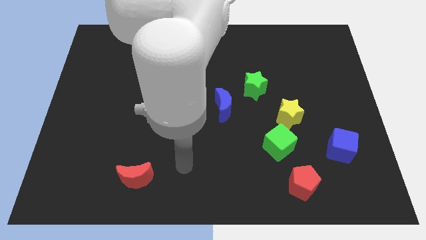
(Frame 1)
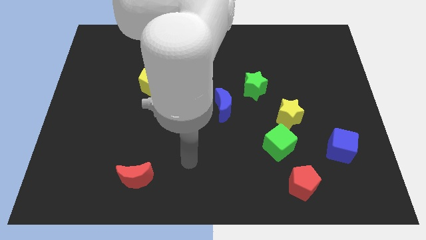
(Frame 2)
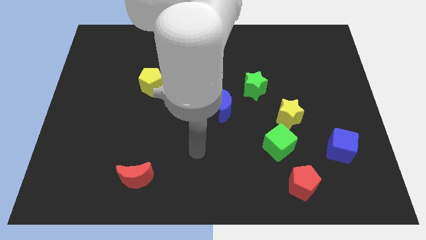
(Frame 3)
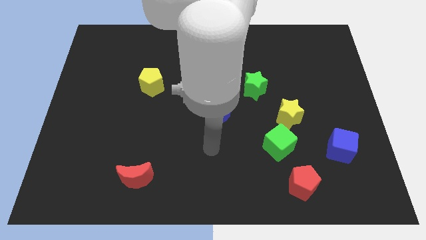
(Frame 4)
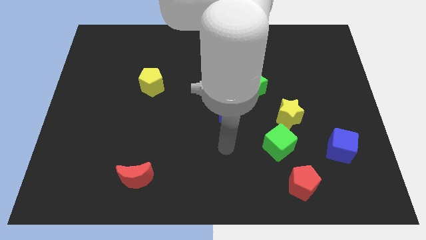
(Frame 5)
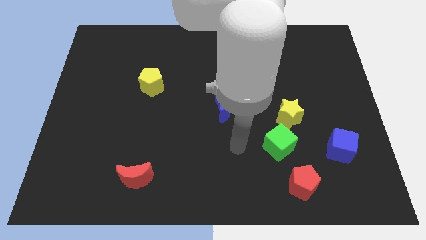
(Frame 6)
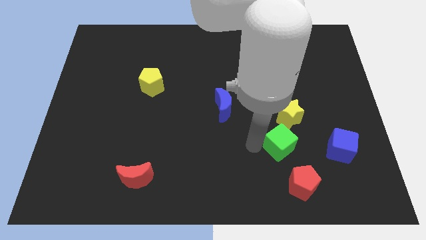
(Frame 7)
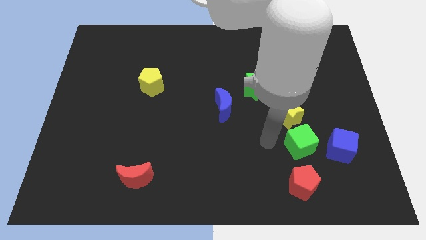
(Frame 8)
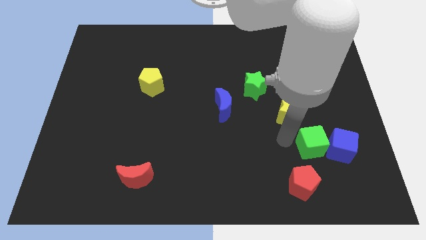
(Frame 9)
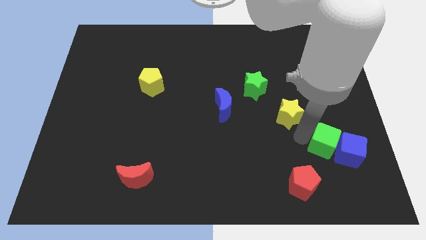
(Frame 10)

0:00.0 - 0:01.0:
separate the yellow star from the green cube

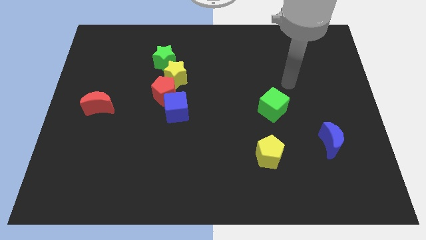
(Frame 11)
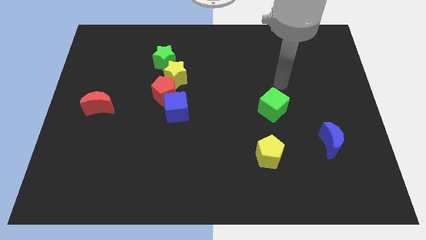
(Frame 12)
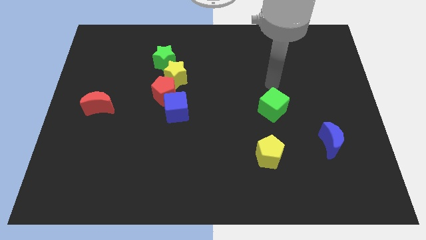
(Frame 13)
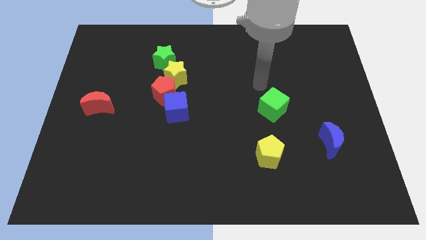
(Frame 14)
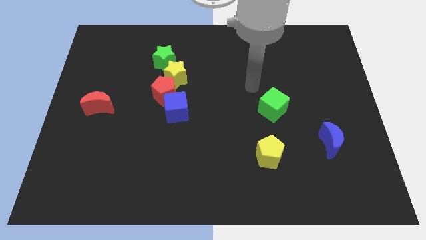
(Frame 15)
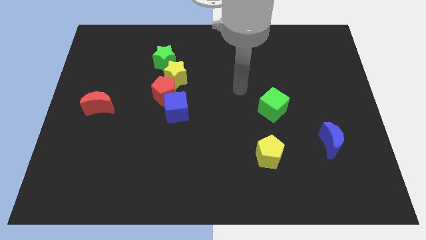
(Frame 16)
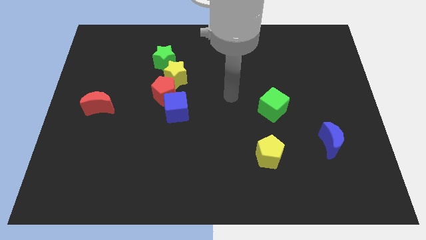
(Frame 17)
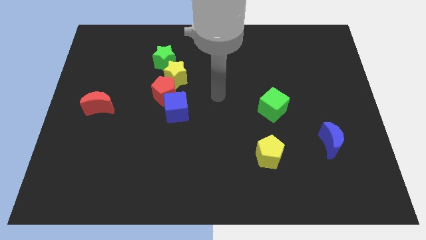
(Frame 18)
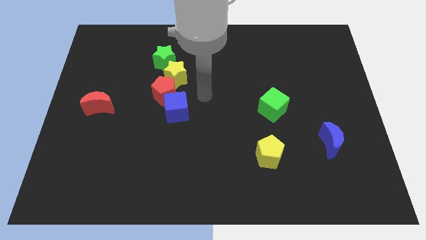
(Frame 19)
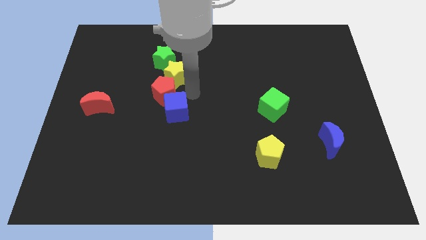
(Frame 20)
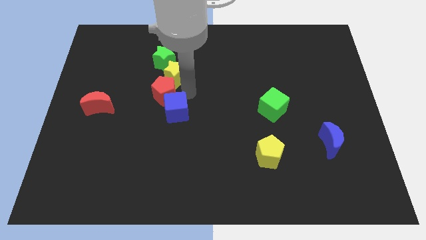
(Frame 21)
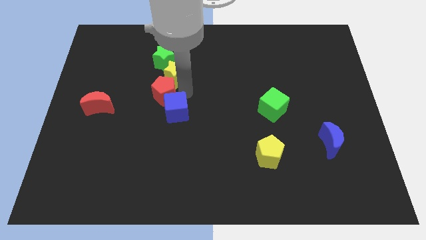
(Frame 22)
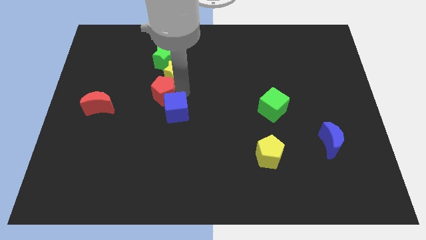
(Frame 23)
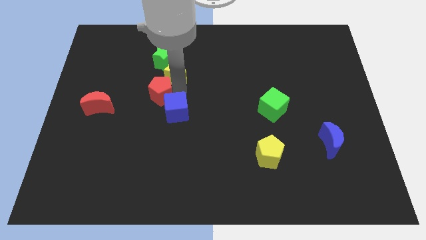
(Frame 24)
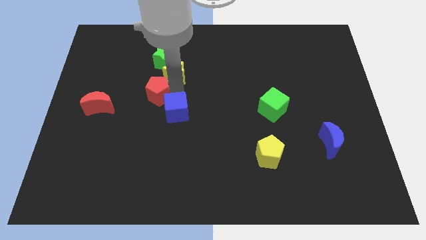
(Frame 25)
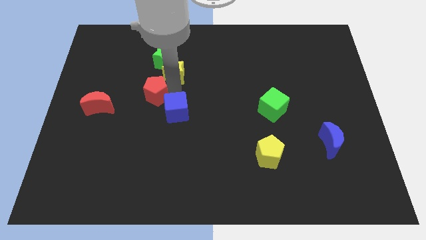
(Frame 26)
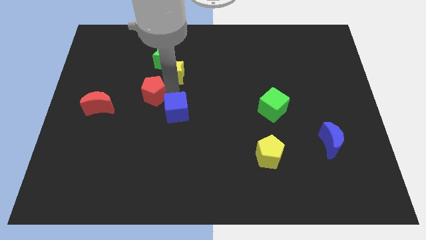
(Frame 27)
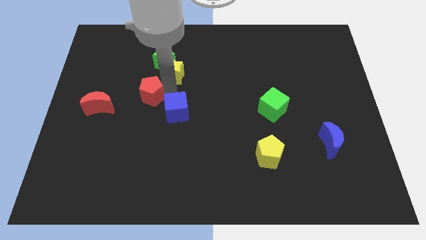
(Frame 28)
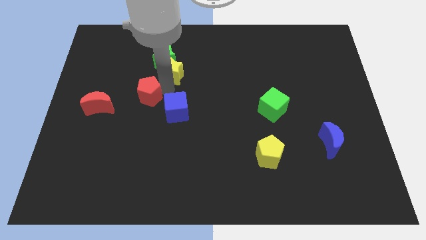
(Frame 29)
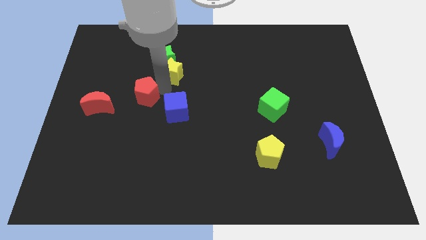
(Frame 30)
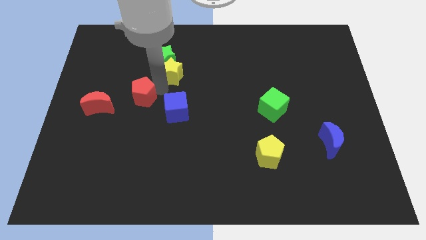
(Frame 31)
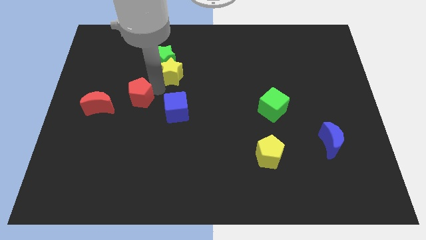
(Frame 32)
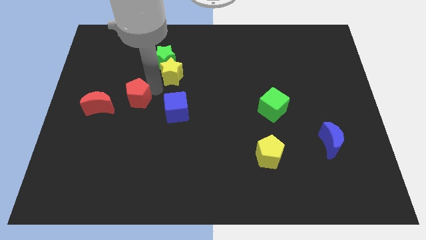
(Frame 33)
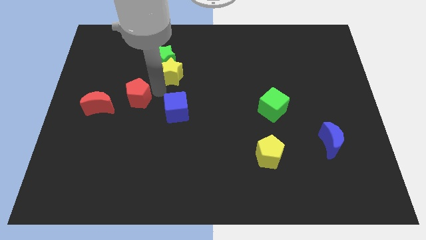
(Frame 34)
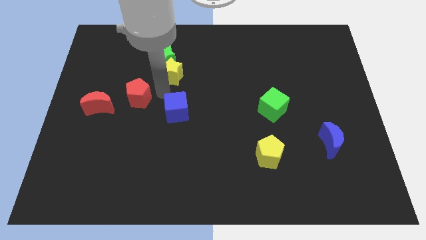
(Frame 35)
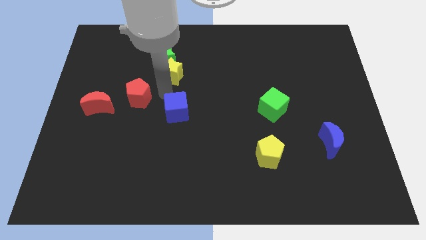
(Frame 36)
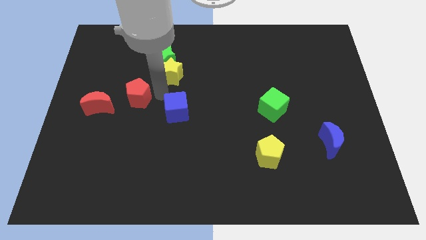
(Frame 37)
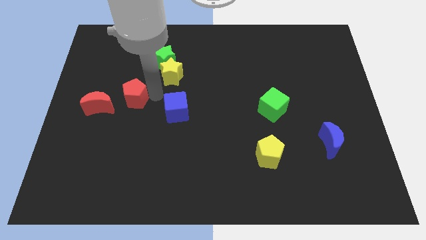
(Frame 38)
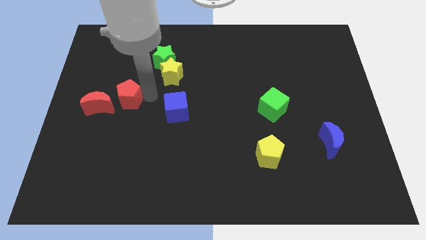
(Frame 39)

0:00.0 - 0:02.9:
move the red pentagon away from the yellow star and blue cube

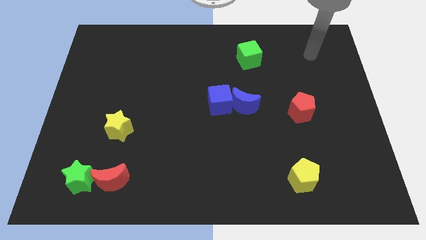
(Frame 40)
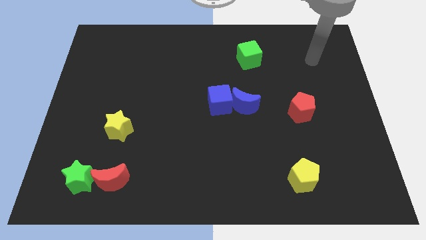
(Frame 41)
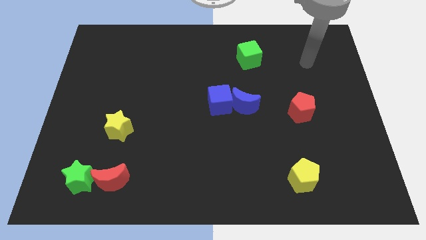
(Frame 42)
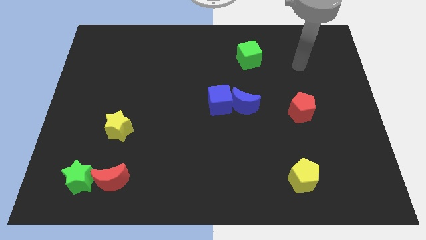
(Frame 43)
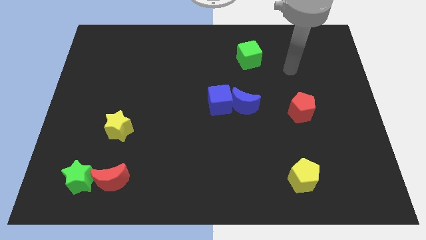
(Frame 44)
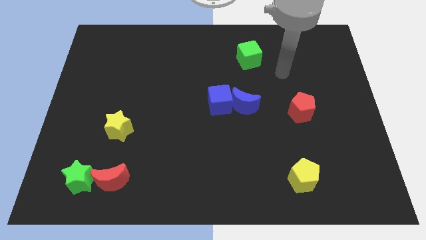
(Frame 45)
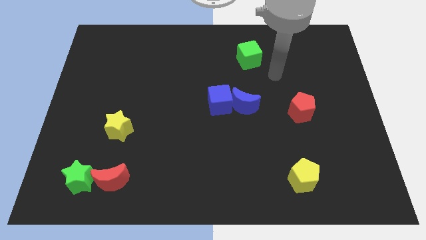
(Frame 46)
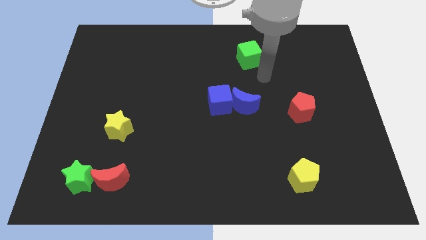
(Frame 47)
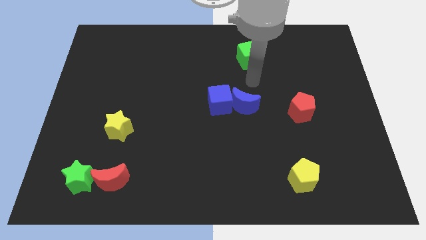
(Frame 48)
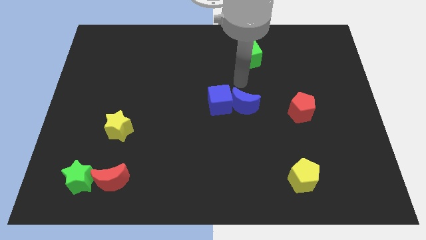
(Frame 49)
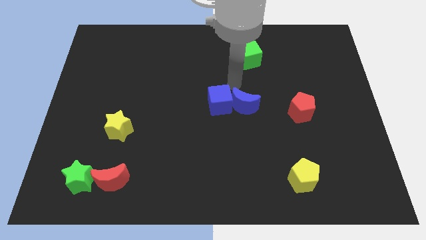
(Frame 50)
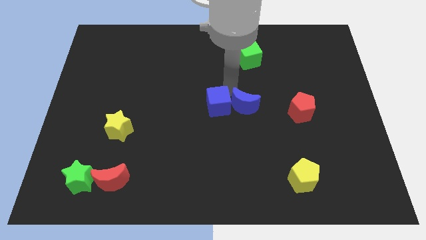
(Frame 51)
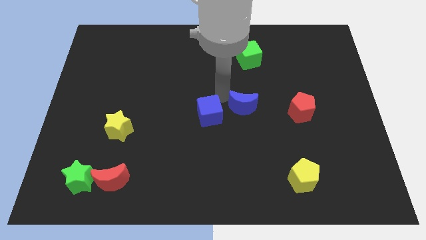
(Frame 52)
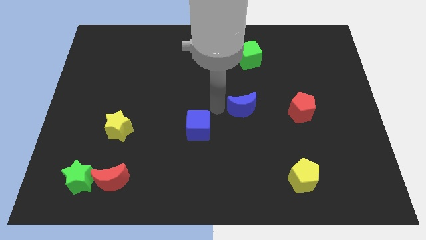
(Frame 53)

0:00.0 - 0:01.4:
pull the blue moon apart from the blue cube

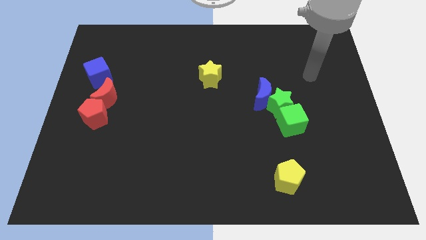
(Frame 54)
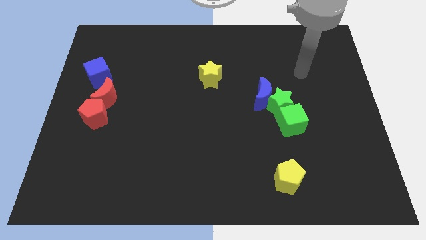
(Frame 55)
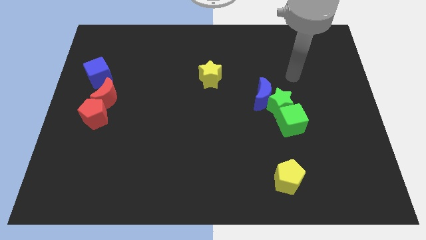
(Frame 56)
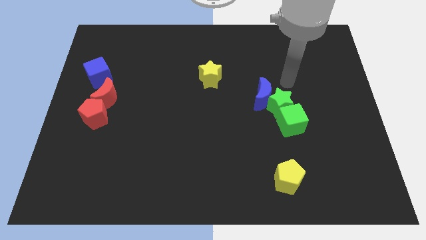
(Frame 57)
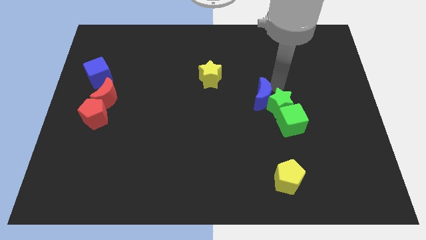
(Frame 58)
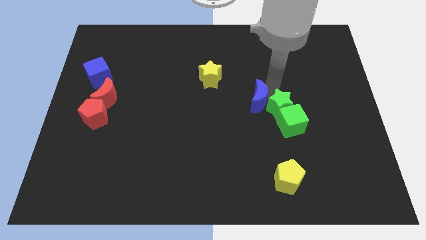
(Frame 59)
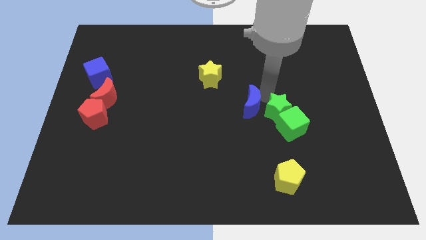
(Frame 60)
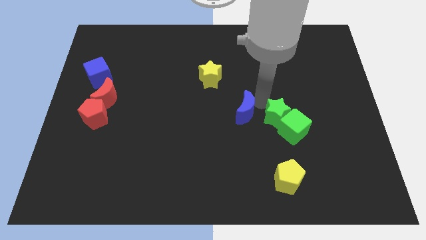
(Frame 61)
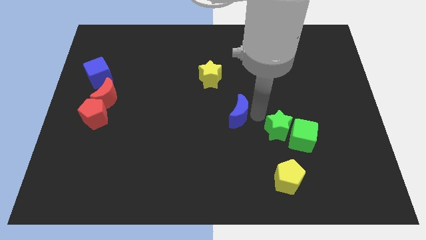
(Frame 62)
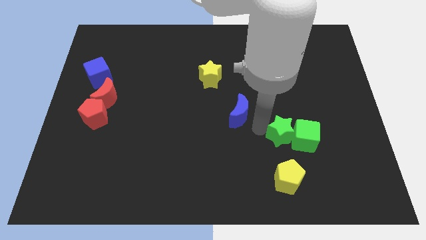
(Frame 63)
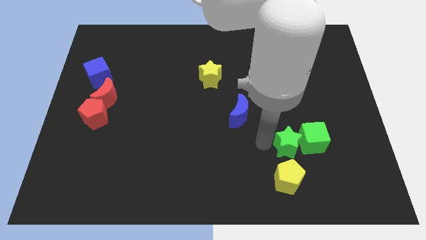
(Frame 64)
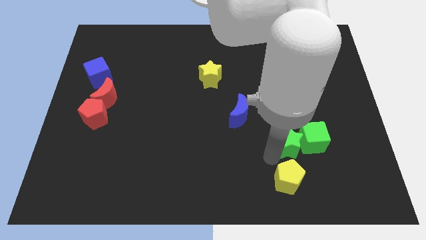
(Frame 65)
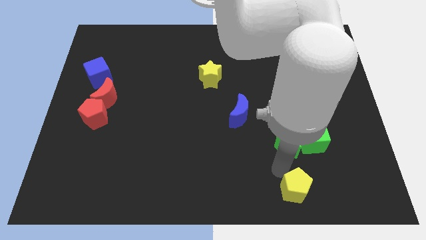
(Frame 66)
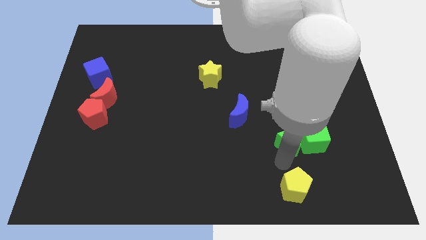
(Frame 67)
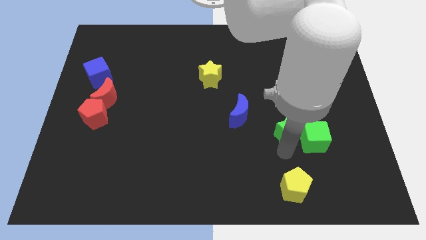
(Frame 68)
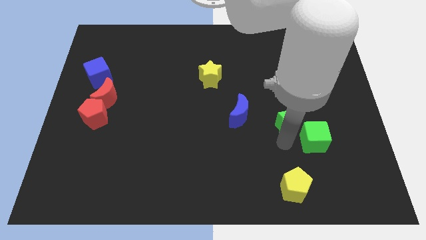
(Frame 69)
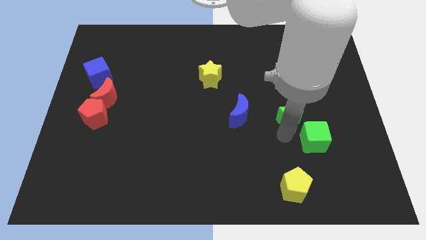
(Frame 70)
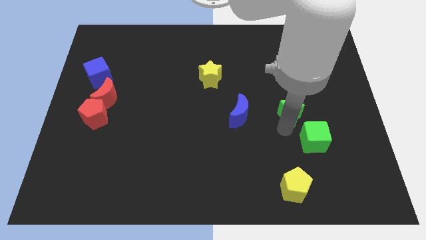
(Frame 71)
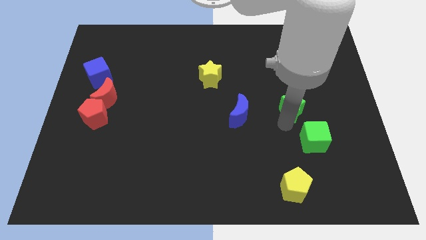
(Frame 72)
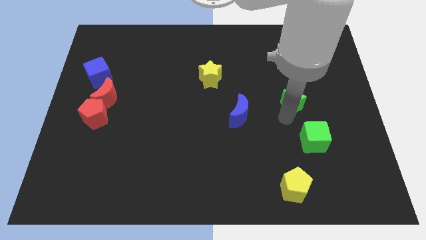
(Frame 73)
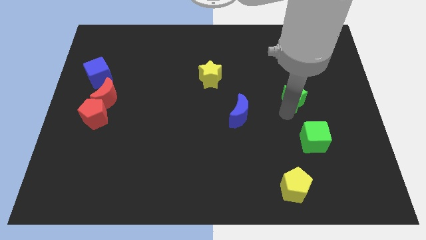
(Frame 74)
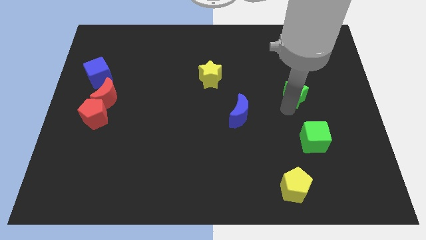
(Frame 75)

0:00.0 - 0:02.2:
pull the green star apart from the blue moon and green cube

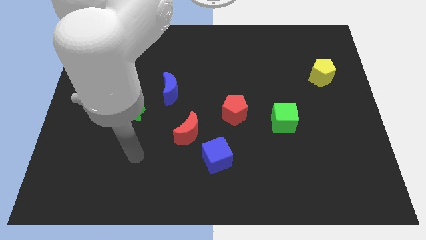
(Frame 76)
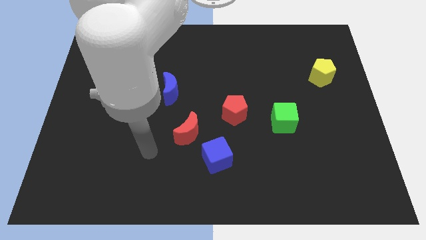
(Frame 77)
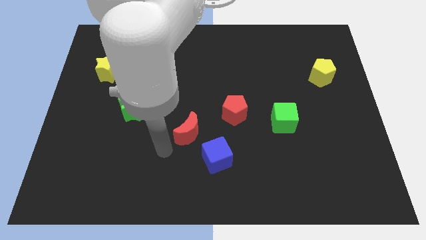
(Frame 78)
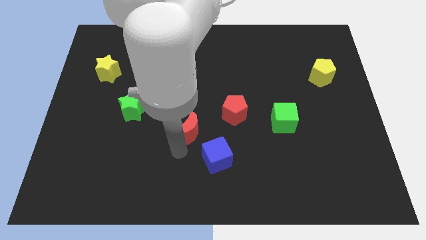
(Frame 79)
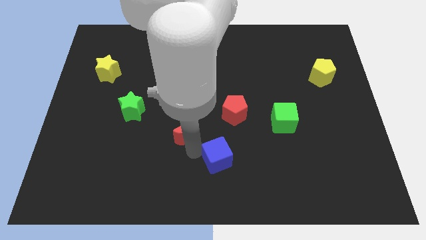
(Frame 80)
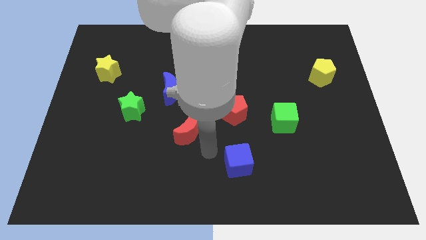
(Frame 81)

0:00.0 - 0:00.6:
pull the red moon apart from the blue cube

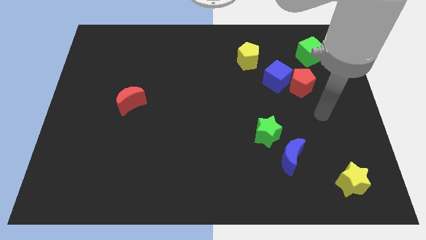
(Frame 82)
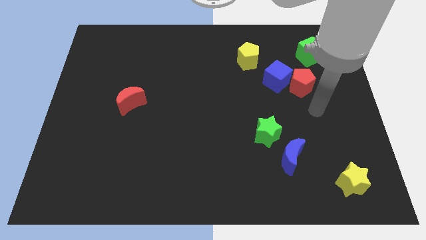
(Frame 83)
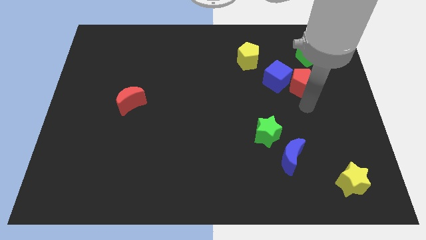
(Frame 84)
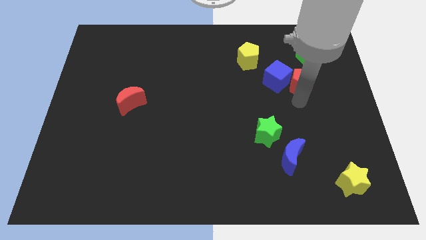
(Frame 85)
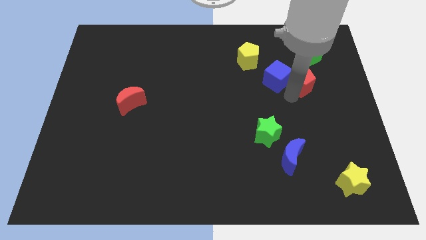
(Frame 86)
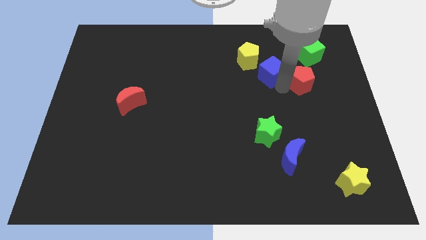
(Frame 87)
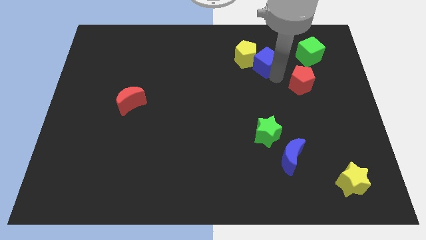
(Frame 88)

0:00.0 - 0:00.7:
pull the red pentagon apart from the blue cube

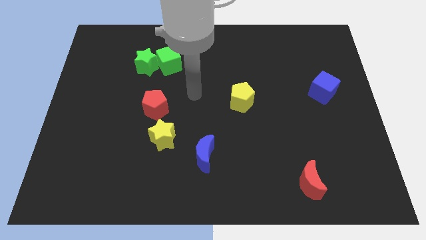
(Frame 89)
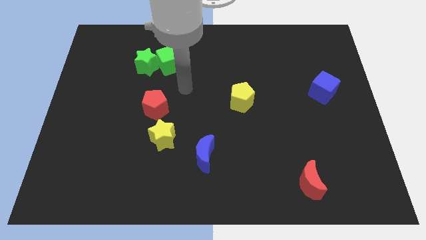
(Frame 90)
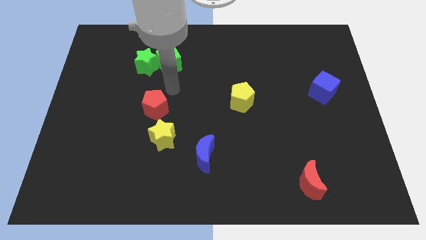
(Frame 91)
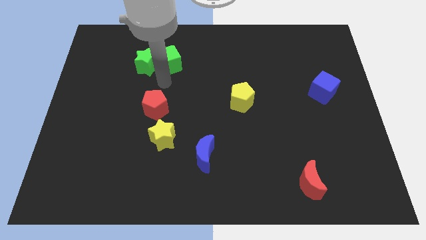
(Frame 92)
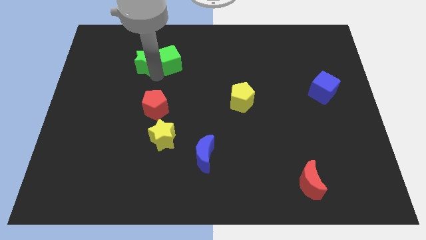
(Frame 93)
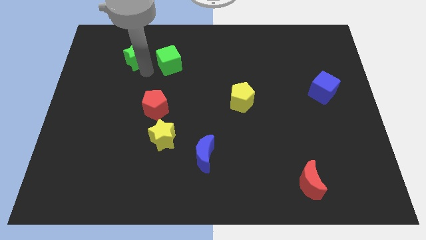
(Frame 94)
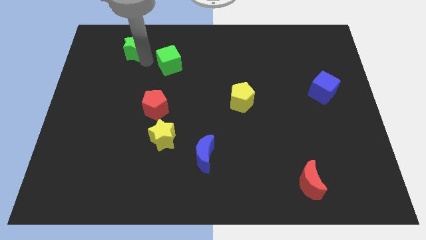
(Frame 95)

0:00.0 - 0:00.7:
move the green cube away from the green star
